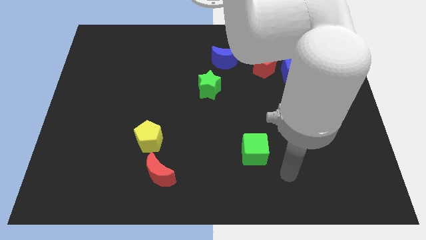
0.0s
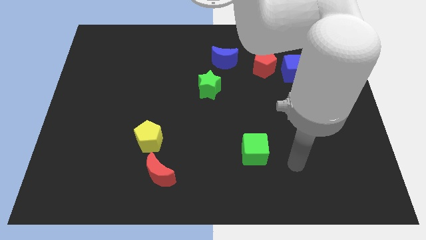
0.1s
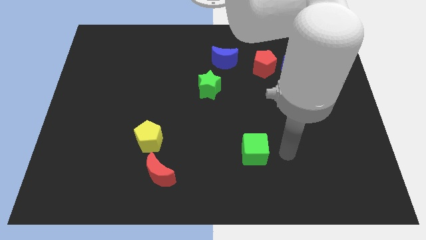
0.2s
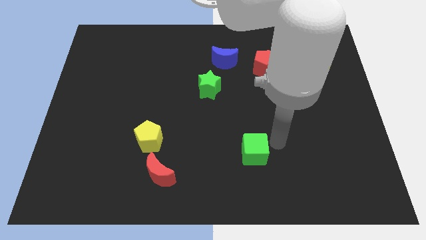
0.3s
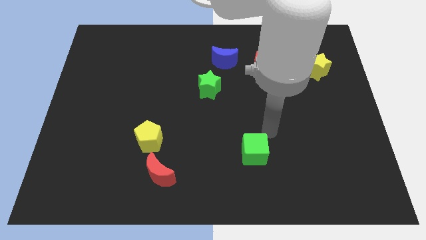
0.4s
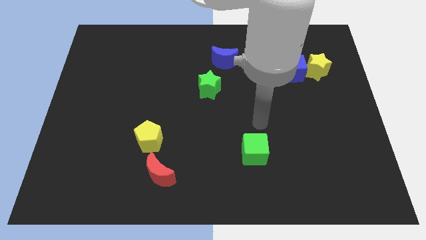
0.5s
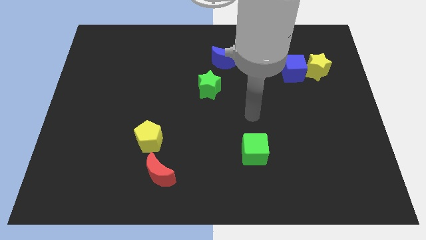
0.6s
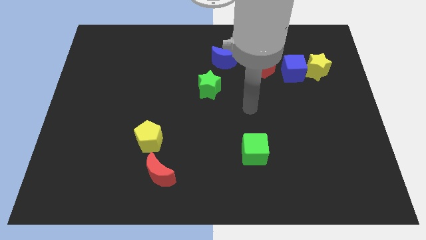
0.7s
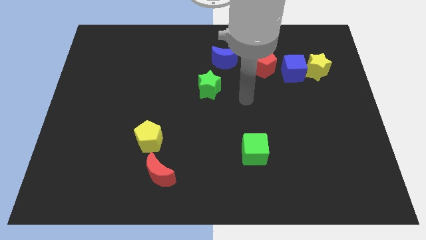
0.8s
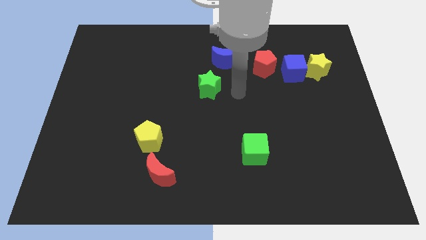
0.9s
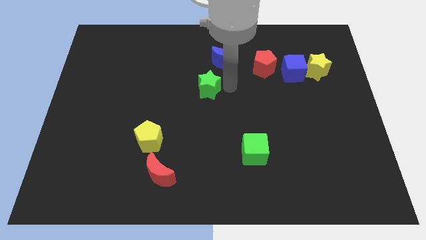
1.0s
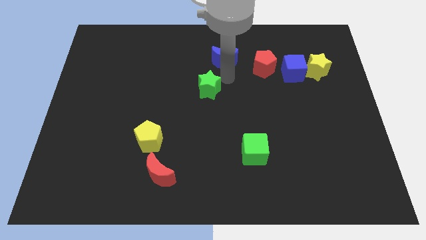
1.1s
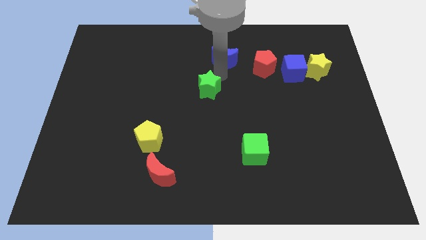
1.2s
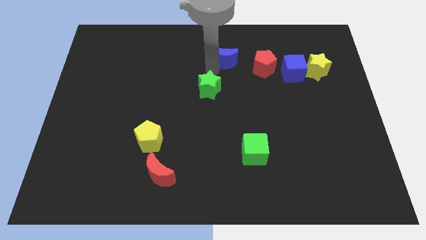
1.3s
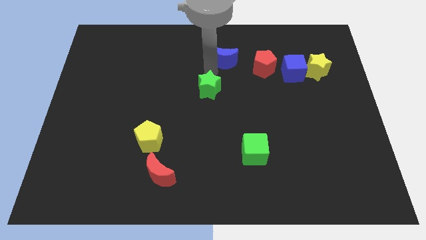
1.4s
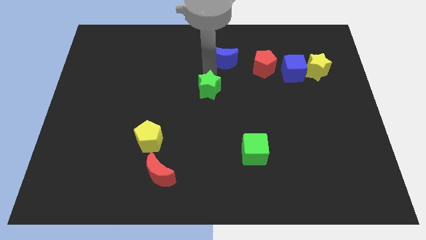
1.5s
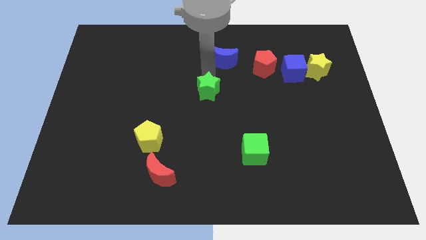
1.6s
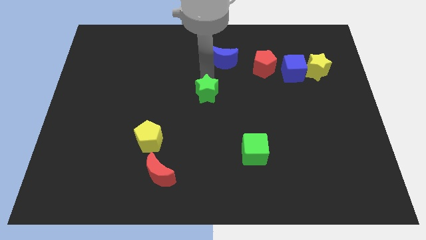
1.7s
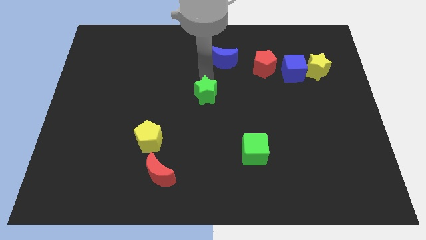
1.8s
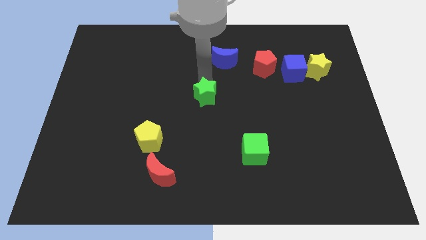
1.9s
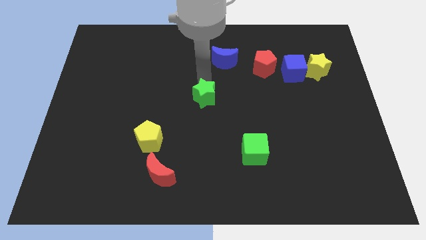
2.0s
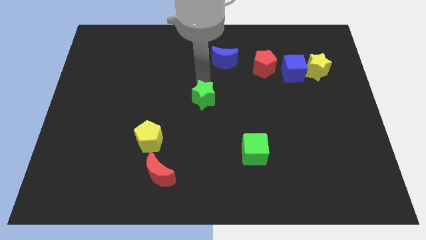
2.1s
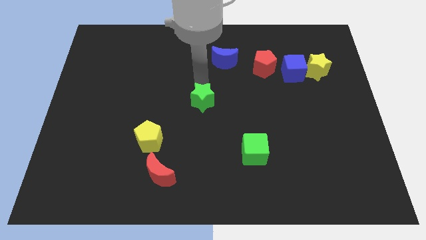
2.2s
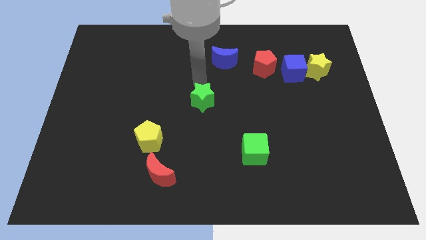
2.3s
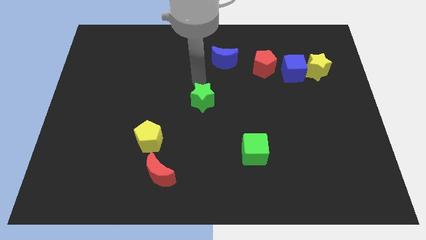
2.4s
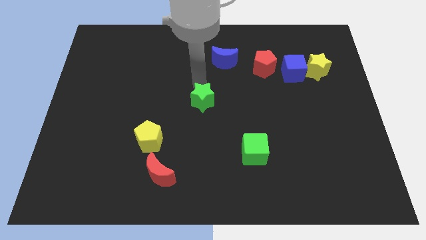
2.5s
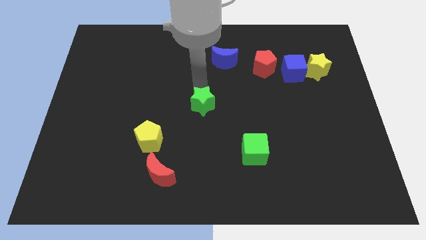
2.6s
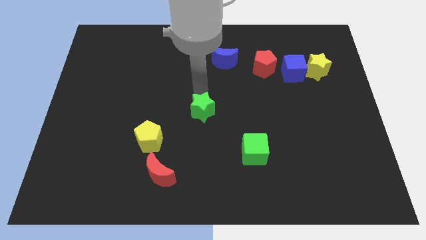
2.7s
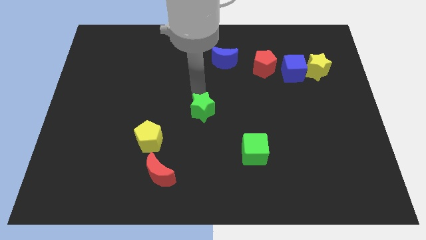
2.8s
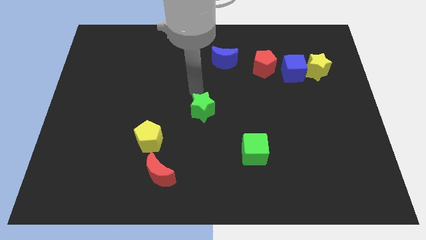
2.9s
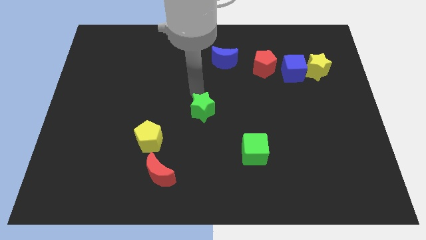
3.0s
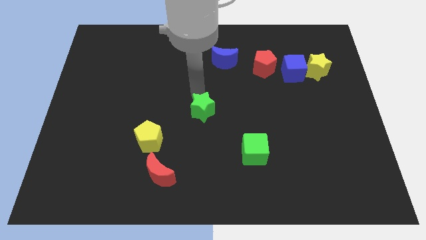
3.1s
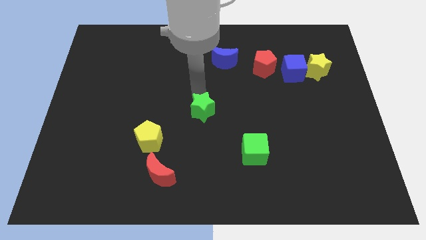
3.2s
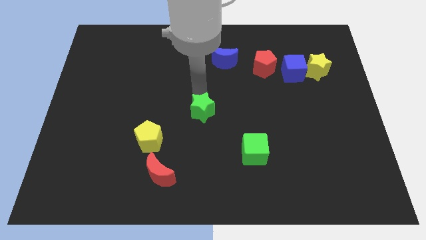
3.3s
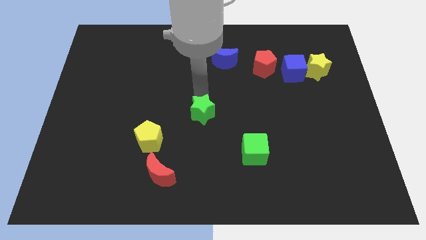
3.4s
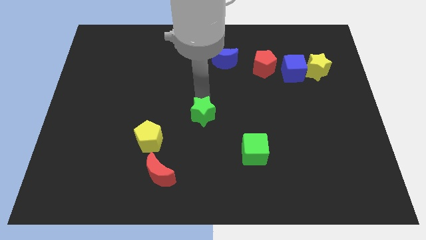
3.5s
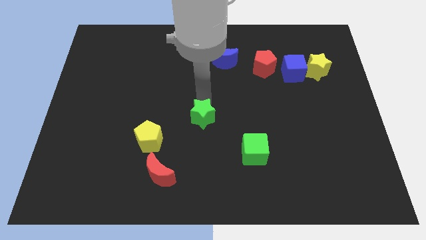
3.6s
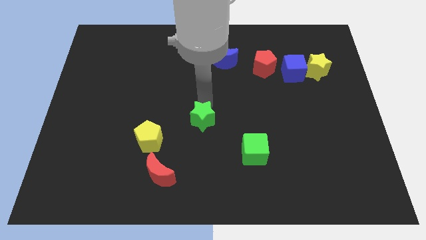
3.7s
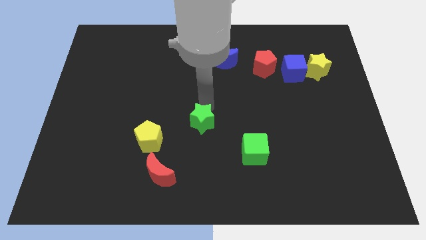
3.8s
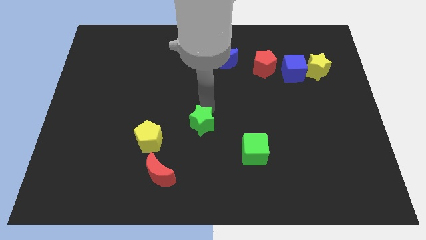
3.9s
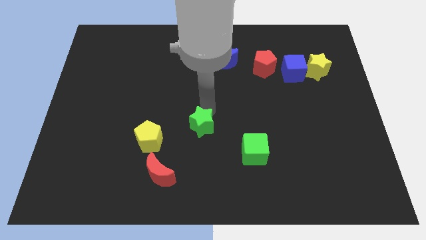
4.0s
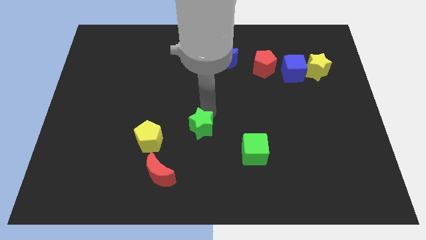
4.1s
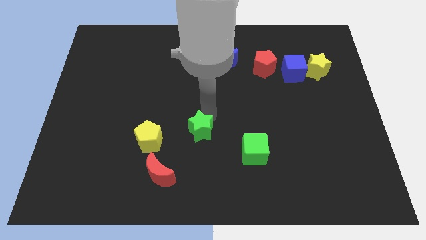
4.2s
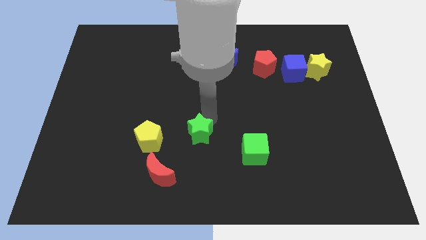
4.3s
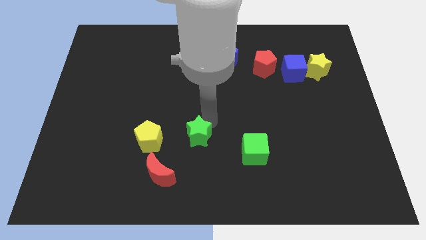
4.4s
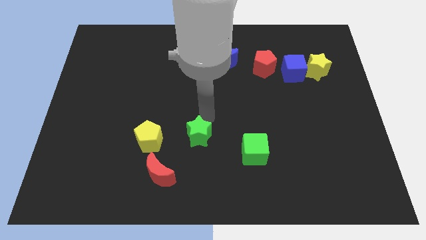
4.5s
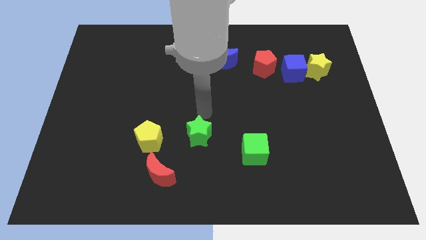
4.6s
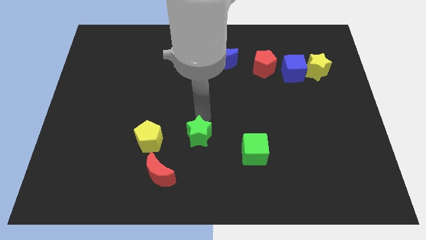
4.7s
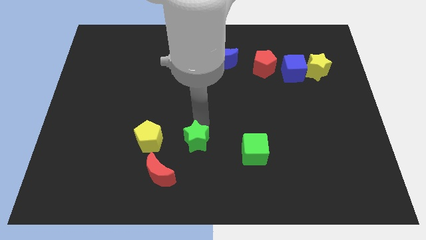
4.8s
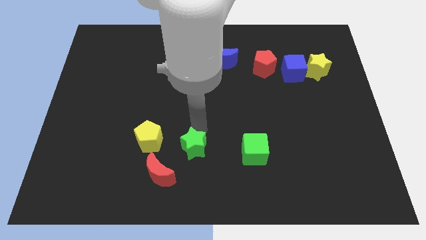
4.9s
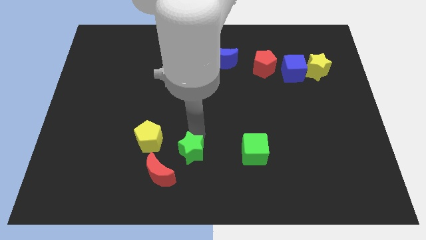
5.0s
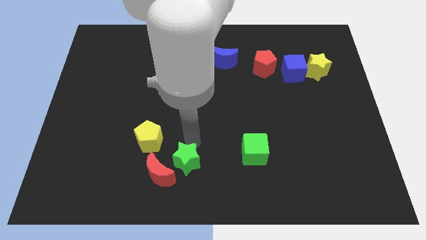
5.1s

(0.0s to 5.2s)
put the green star to the bottom
